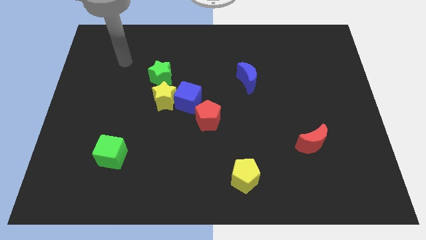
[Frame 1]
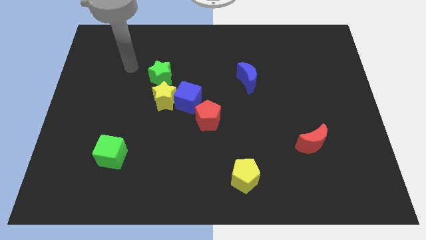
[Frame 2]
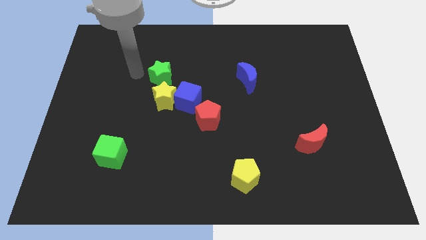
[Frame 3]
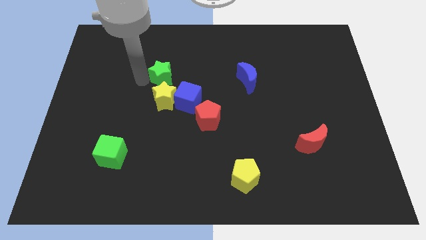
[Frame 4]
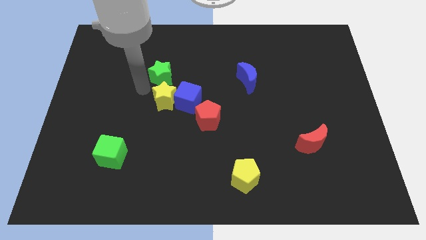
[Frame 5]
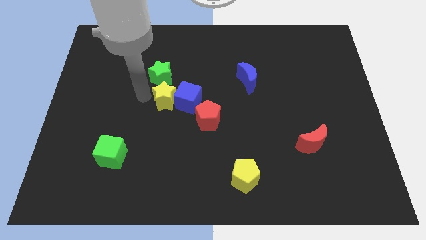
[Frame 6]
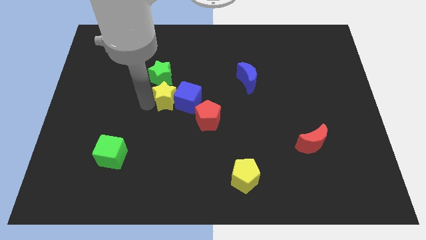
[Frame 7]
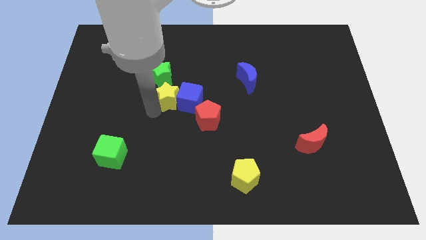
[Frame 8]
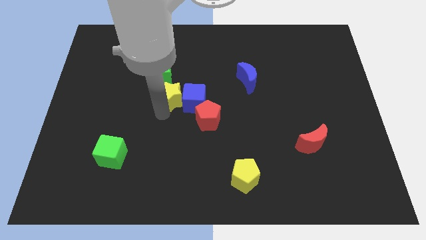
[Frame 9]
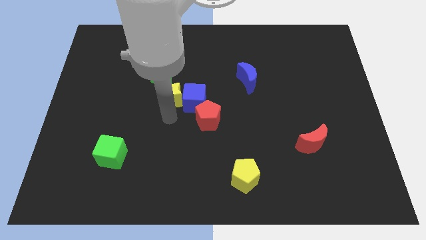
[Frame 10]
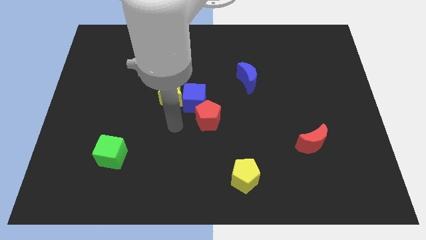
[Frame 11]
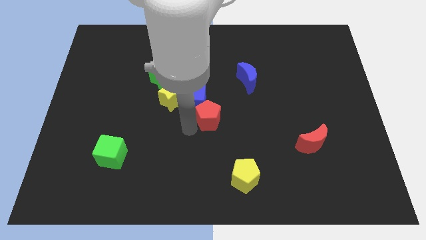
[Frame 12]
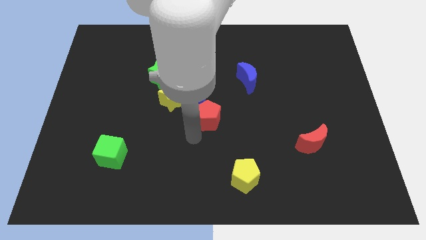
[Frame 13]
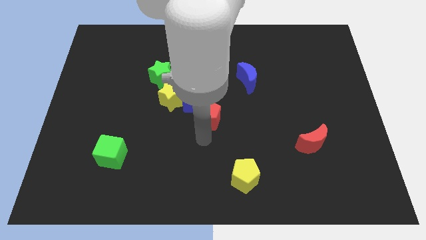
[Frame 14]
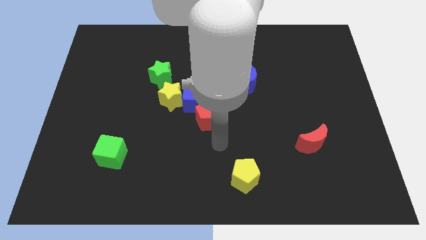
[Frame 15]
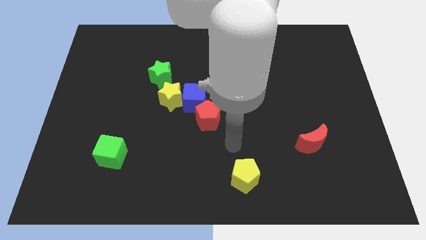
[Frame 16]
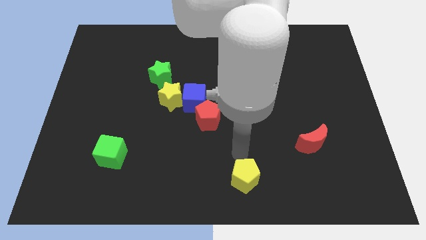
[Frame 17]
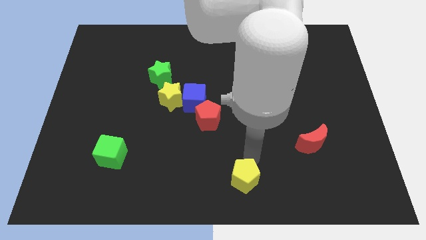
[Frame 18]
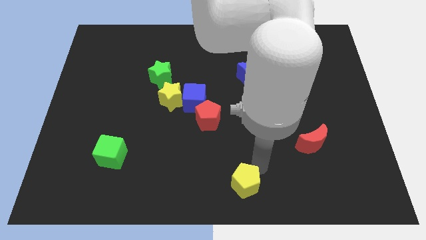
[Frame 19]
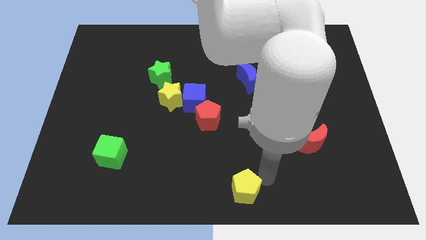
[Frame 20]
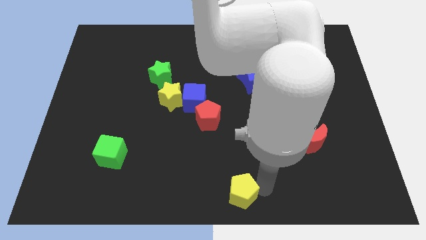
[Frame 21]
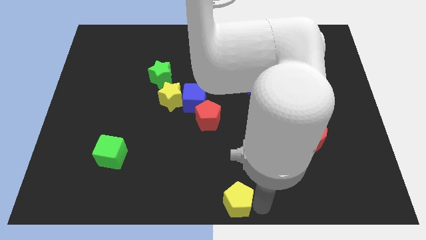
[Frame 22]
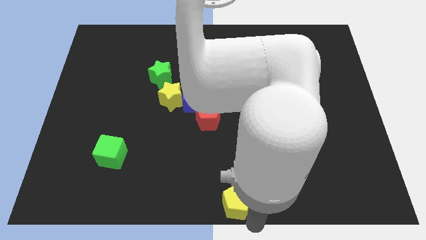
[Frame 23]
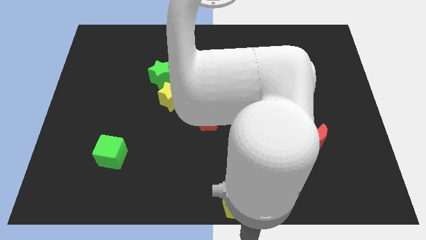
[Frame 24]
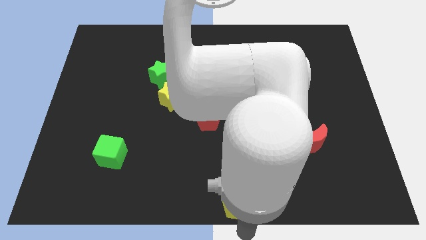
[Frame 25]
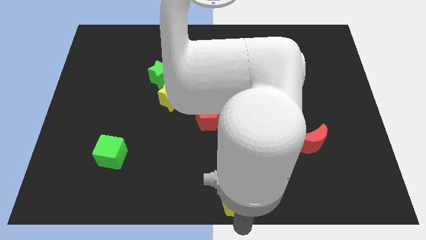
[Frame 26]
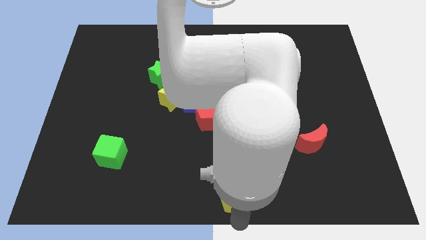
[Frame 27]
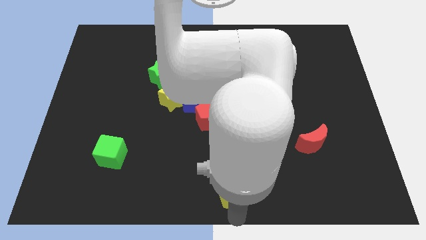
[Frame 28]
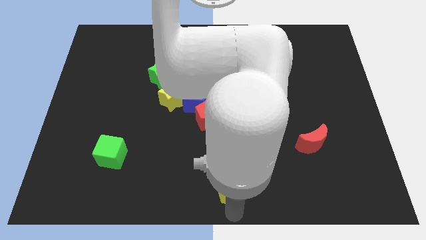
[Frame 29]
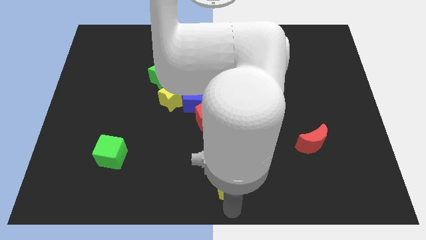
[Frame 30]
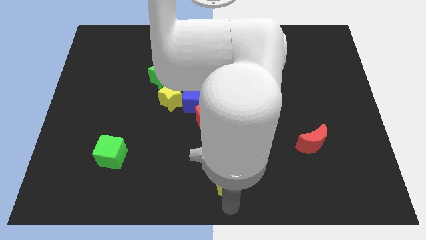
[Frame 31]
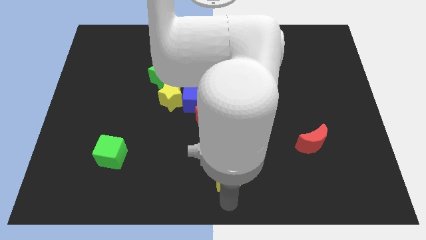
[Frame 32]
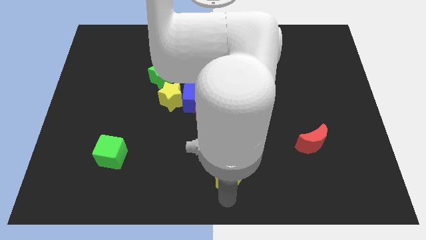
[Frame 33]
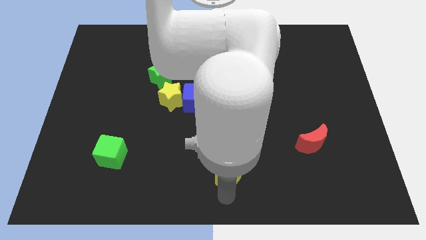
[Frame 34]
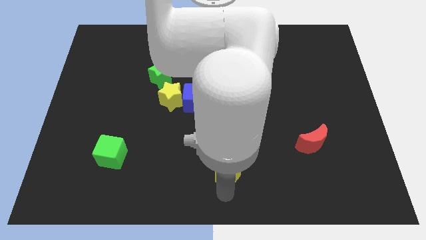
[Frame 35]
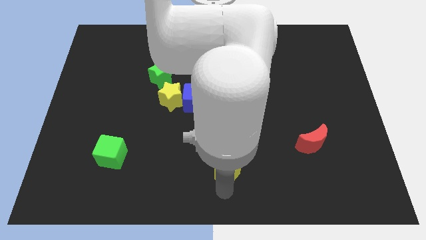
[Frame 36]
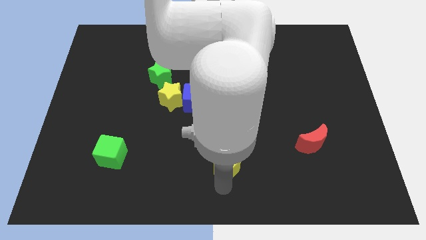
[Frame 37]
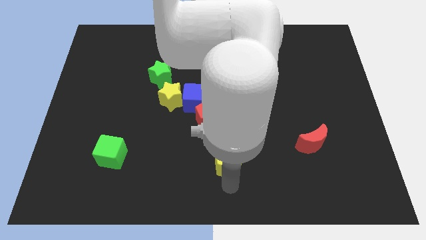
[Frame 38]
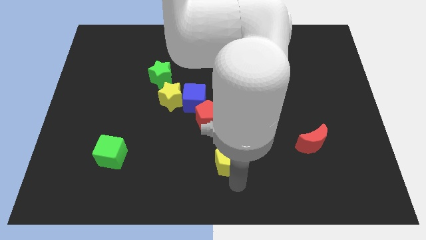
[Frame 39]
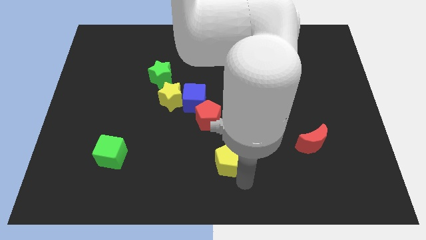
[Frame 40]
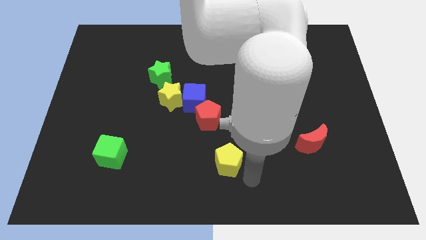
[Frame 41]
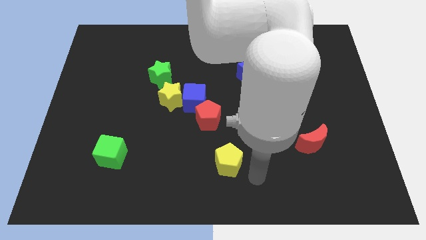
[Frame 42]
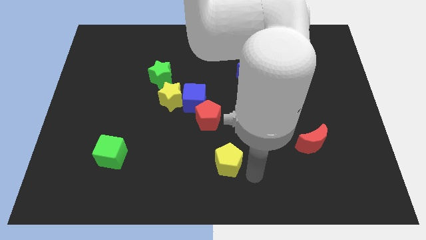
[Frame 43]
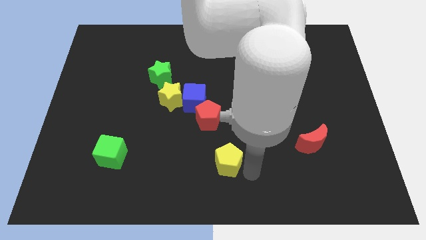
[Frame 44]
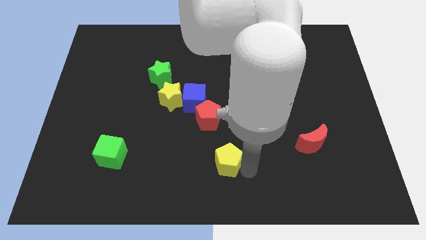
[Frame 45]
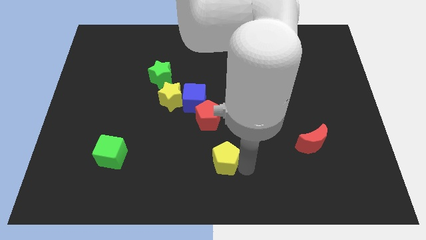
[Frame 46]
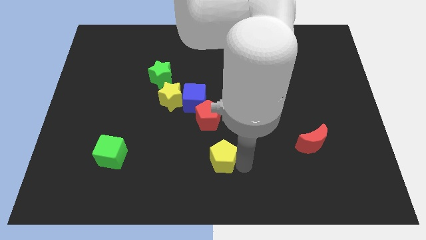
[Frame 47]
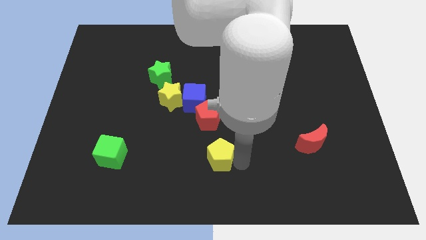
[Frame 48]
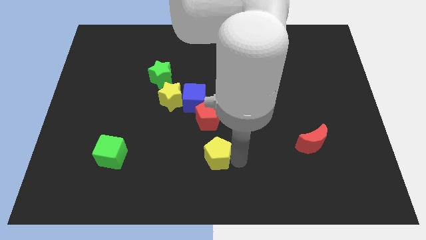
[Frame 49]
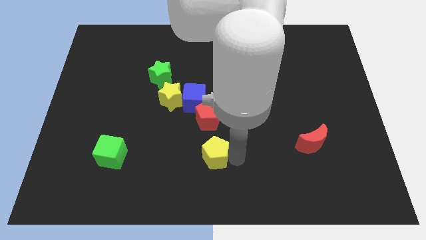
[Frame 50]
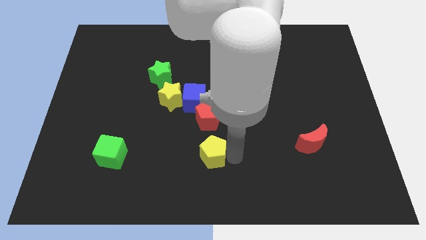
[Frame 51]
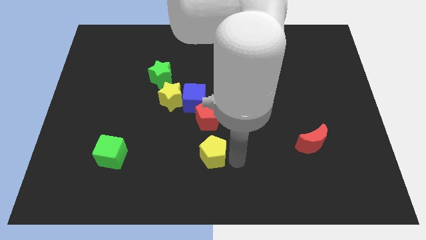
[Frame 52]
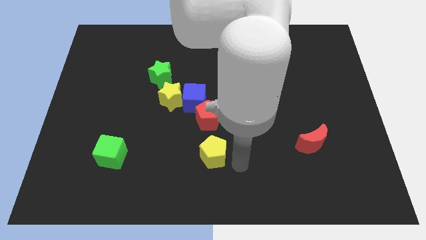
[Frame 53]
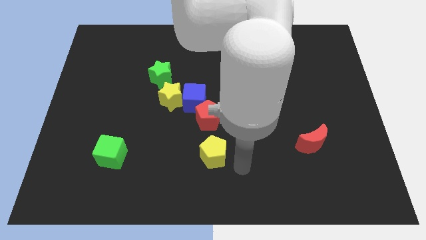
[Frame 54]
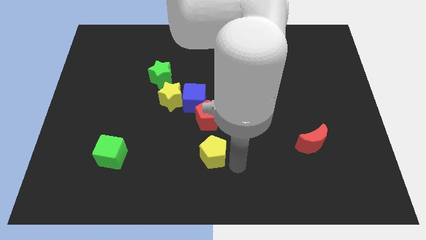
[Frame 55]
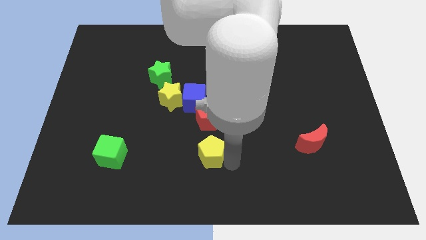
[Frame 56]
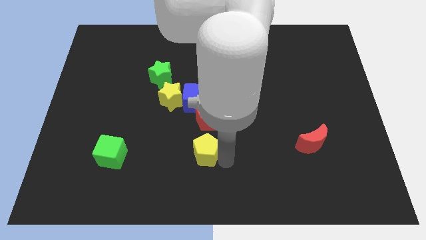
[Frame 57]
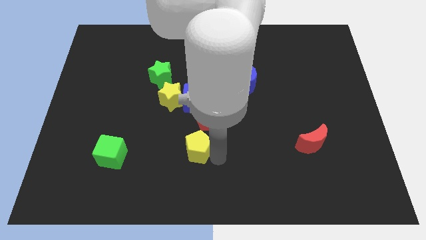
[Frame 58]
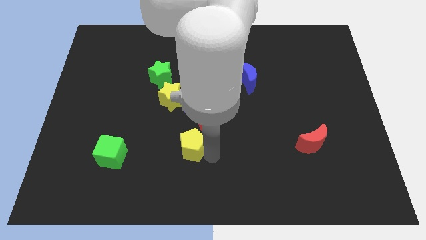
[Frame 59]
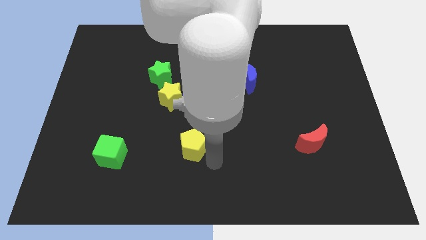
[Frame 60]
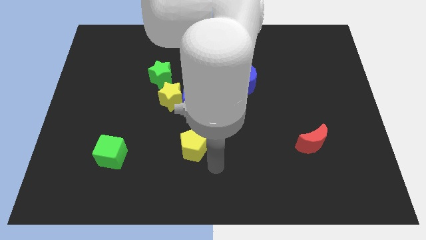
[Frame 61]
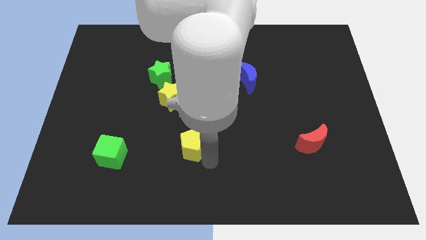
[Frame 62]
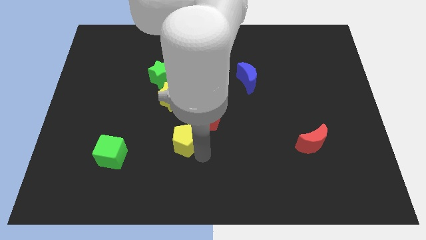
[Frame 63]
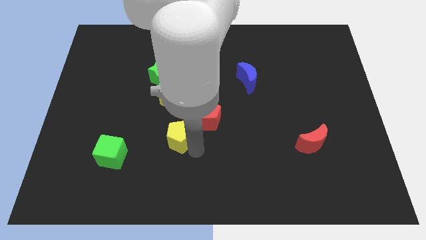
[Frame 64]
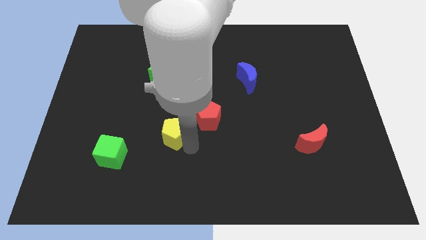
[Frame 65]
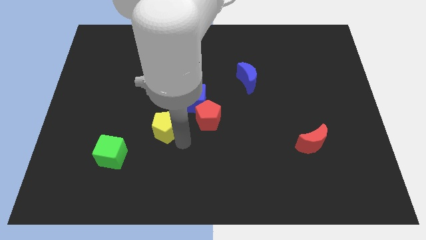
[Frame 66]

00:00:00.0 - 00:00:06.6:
push the yellow pentagon up and then left

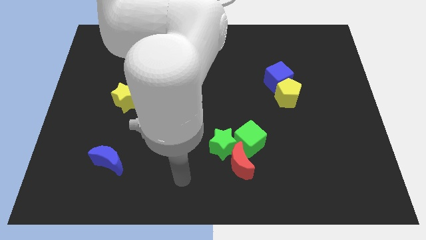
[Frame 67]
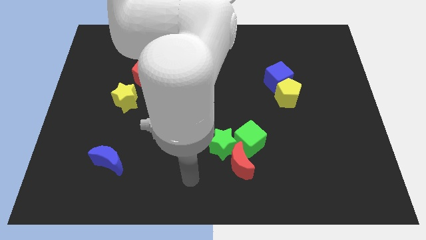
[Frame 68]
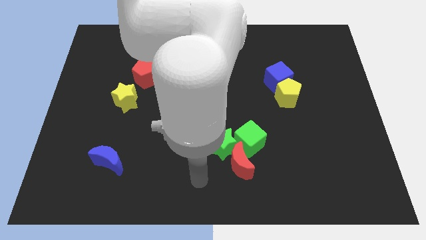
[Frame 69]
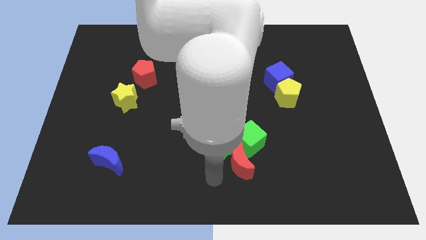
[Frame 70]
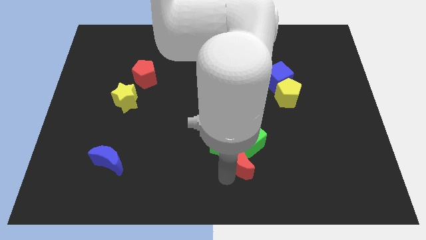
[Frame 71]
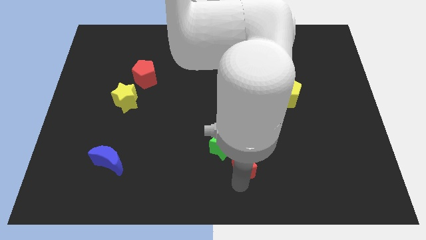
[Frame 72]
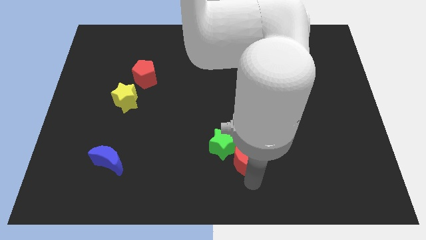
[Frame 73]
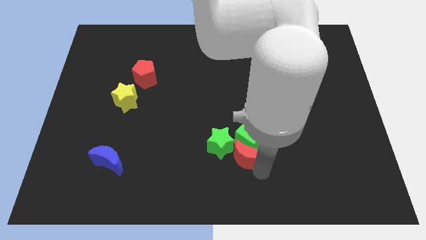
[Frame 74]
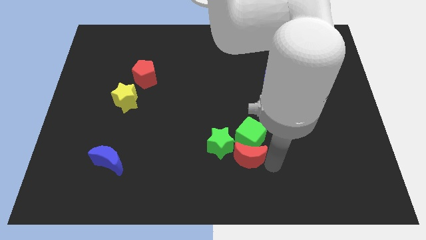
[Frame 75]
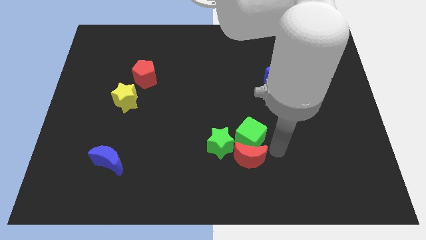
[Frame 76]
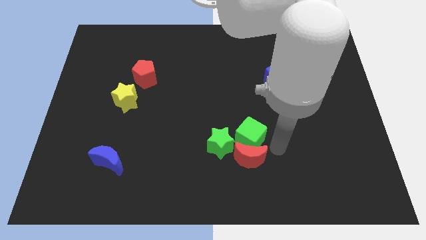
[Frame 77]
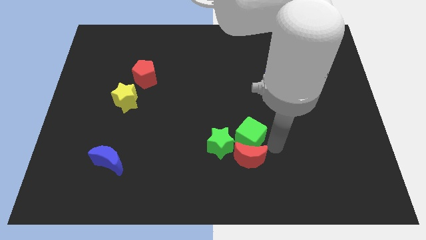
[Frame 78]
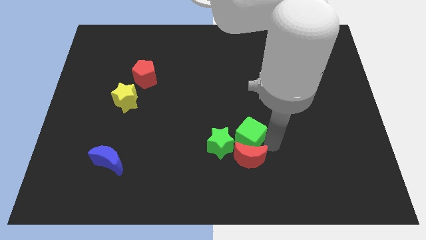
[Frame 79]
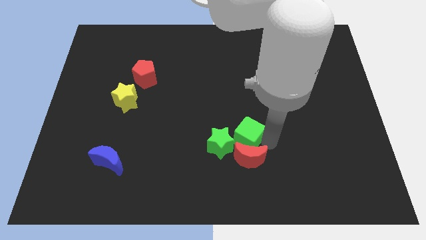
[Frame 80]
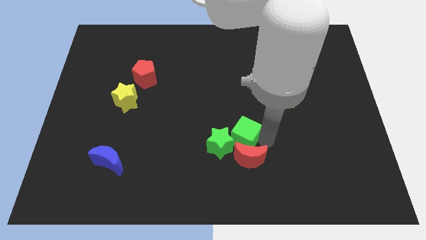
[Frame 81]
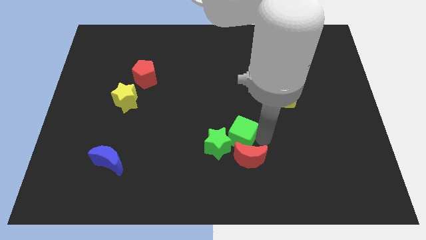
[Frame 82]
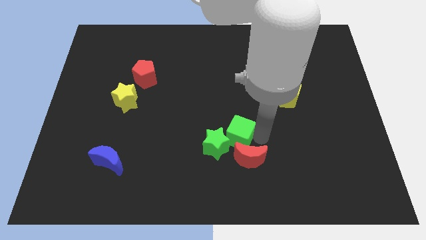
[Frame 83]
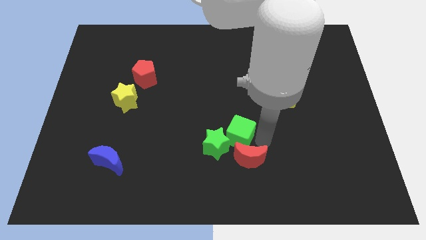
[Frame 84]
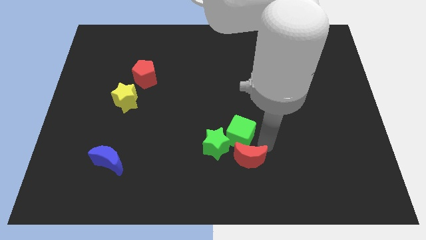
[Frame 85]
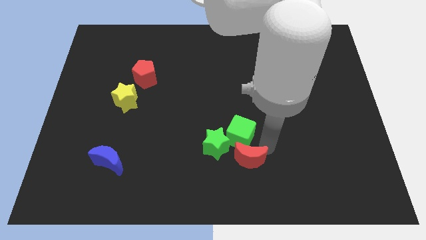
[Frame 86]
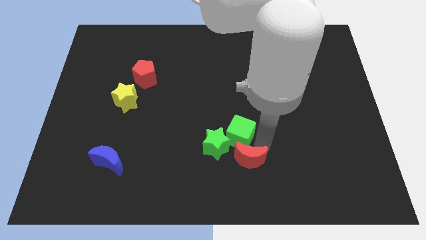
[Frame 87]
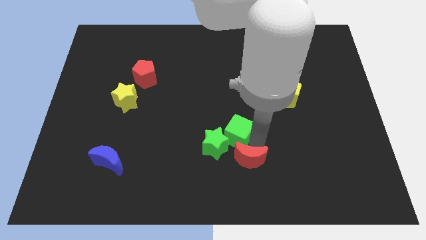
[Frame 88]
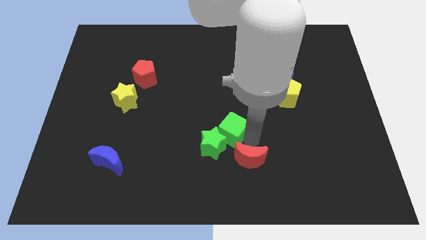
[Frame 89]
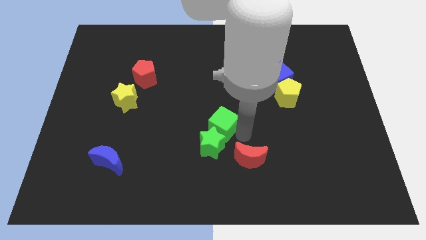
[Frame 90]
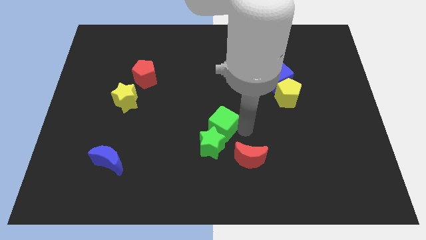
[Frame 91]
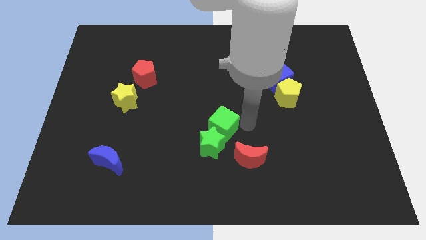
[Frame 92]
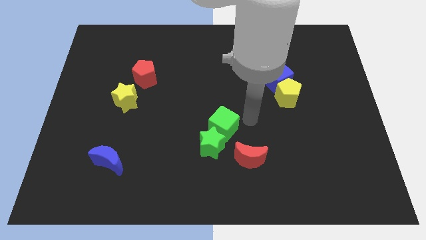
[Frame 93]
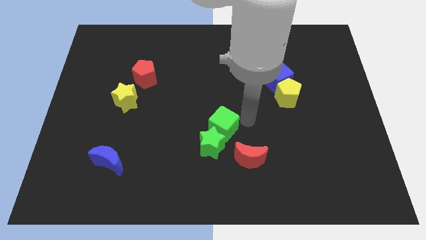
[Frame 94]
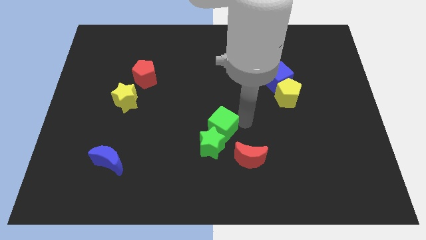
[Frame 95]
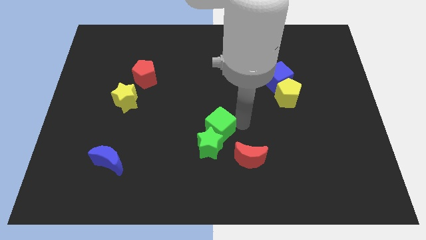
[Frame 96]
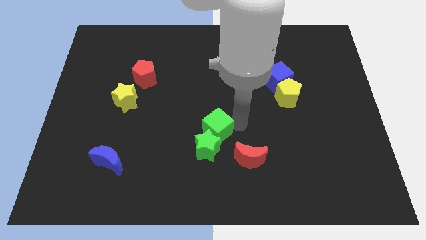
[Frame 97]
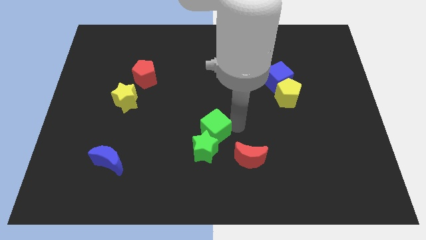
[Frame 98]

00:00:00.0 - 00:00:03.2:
move the green cube left slightly
